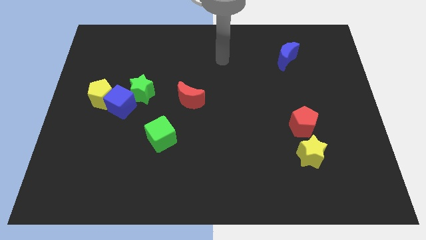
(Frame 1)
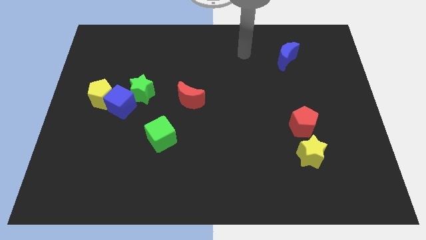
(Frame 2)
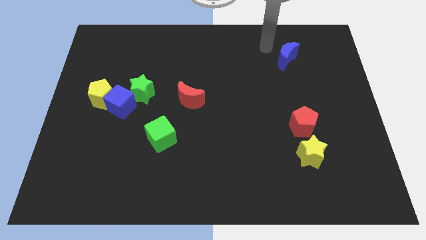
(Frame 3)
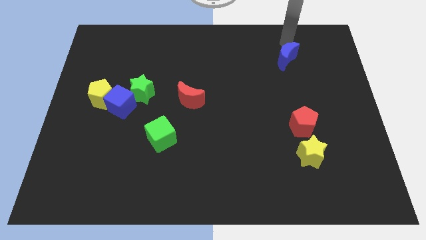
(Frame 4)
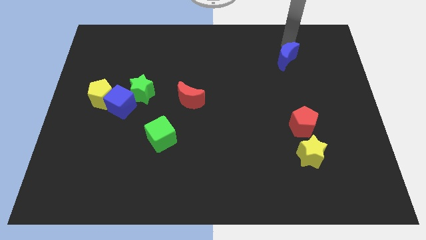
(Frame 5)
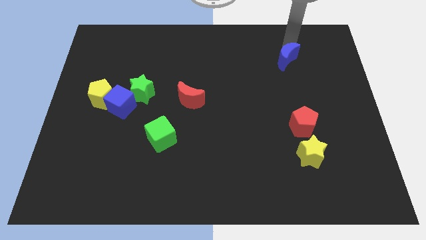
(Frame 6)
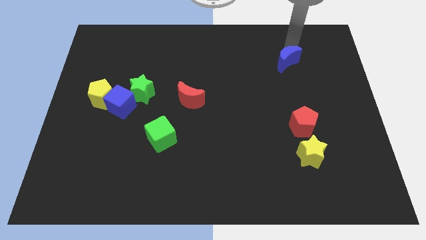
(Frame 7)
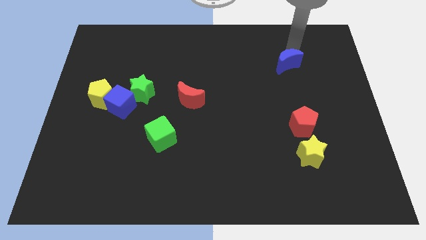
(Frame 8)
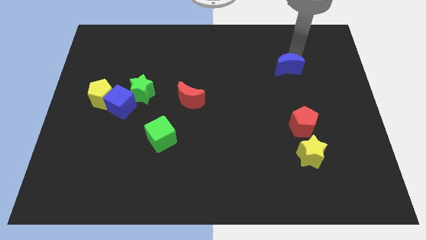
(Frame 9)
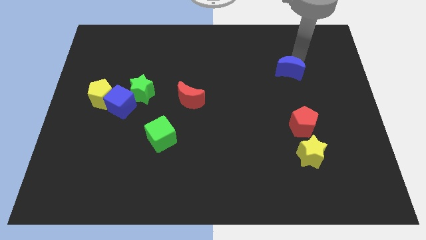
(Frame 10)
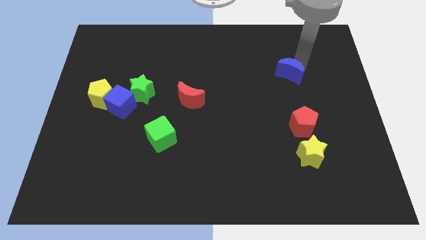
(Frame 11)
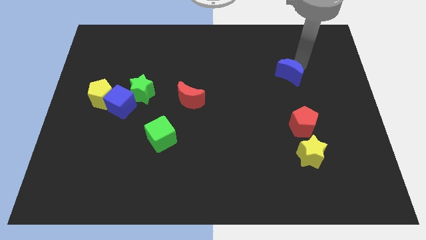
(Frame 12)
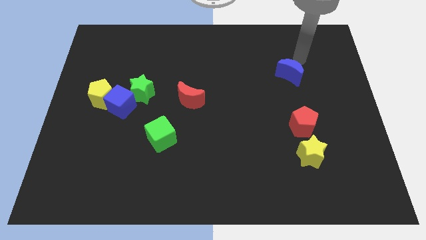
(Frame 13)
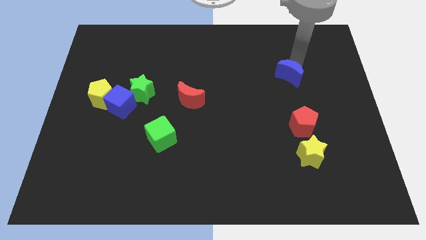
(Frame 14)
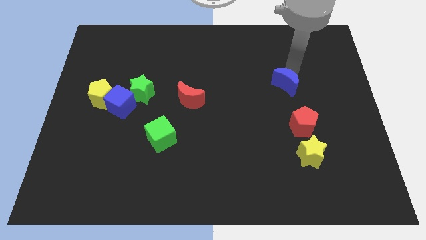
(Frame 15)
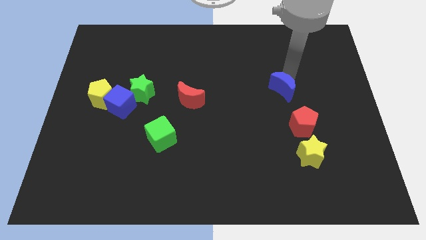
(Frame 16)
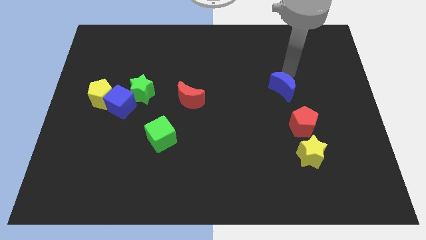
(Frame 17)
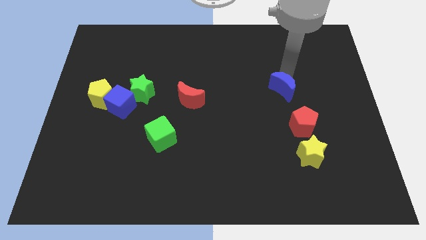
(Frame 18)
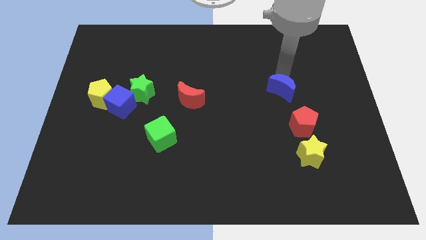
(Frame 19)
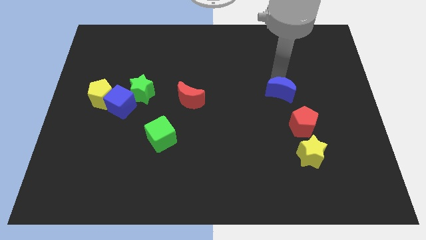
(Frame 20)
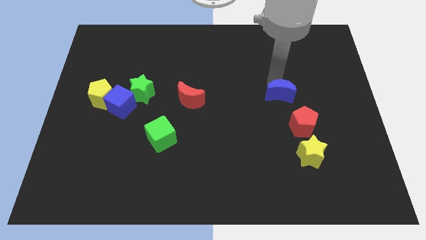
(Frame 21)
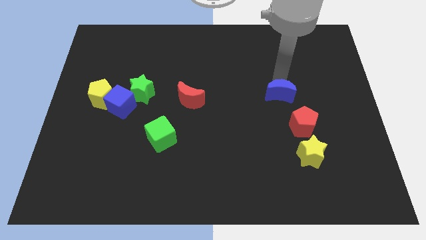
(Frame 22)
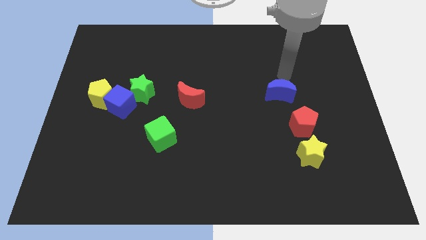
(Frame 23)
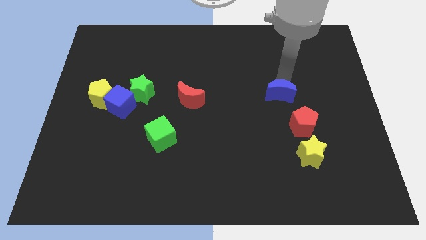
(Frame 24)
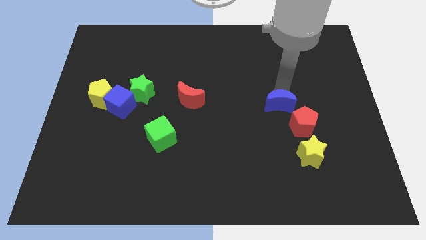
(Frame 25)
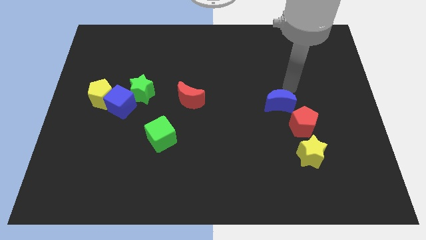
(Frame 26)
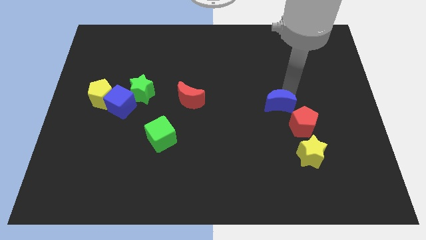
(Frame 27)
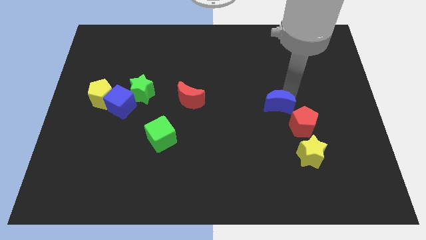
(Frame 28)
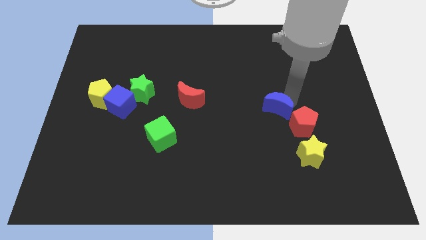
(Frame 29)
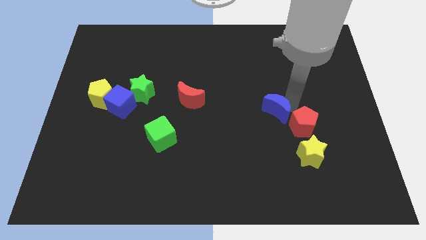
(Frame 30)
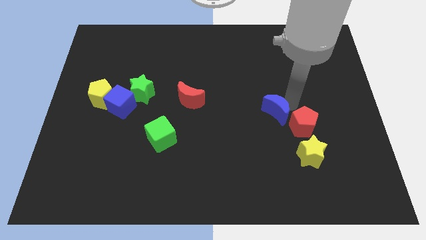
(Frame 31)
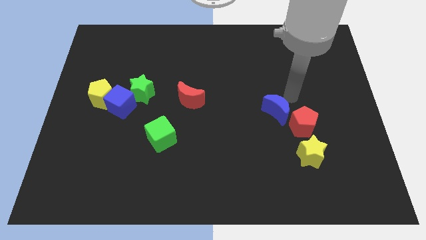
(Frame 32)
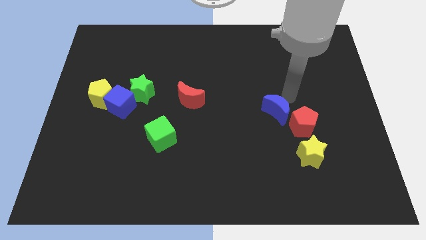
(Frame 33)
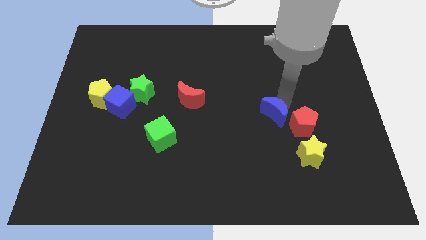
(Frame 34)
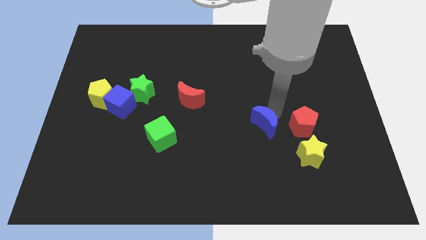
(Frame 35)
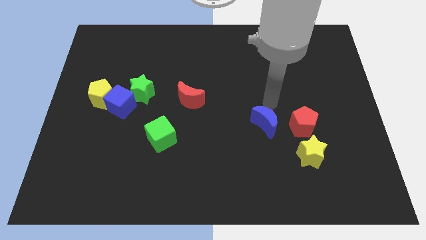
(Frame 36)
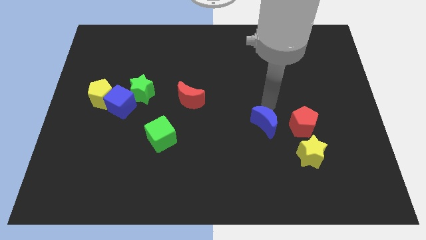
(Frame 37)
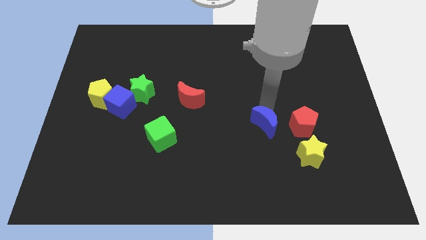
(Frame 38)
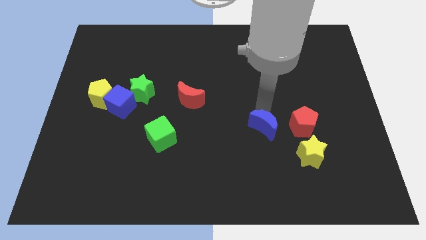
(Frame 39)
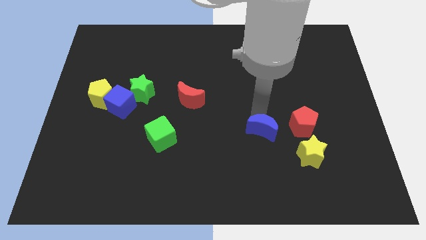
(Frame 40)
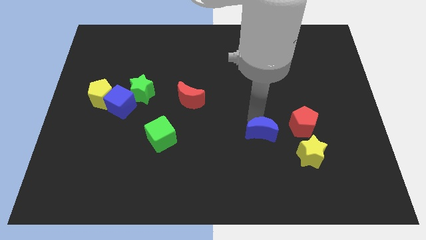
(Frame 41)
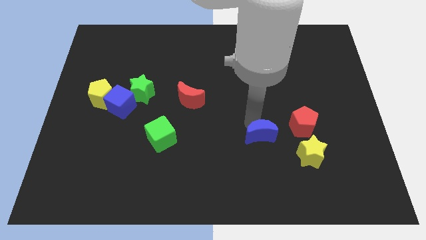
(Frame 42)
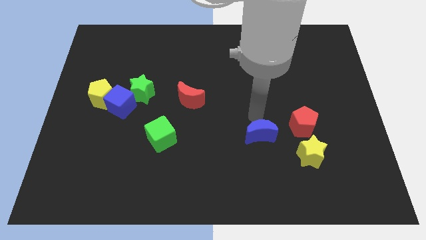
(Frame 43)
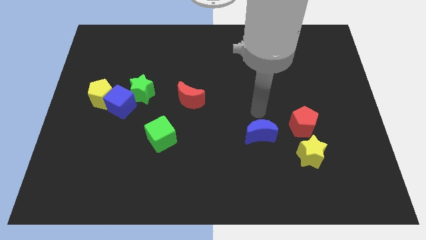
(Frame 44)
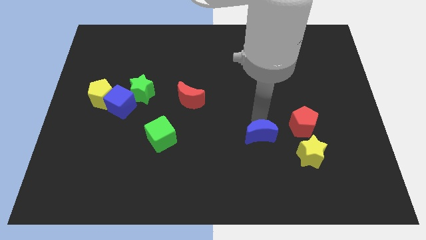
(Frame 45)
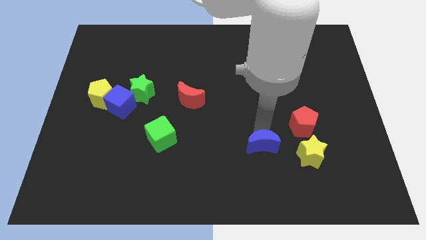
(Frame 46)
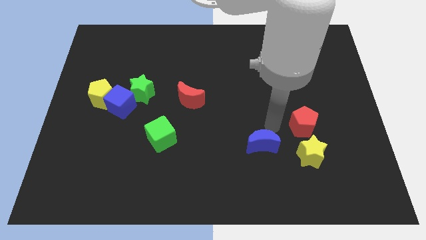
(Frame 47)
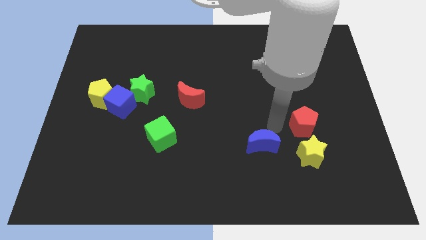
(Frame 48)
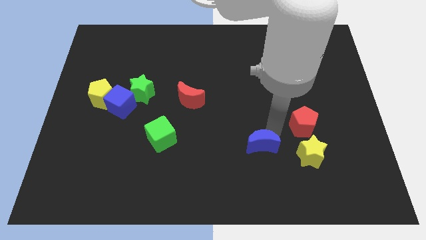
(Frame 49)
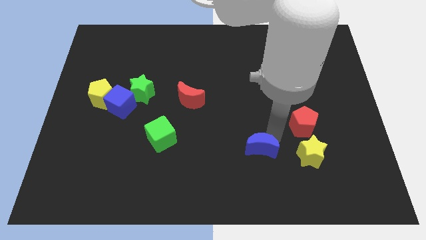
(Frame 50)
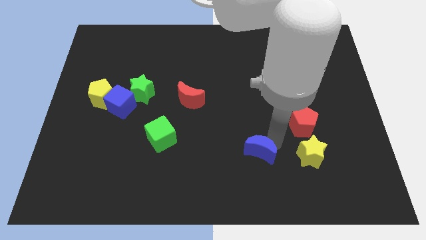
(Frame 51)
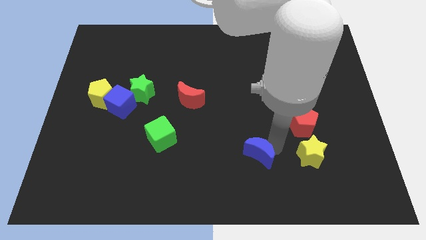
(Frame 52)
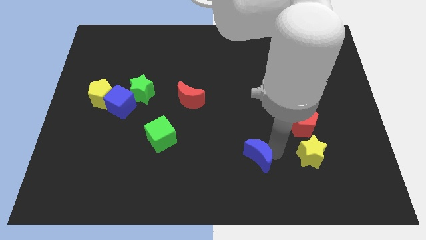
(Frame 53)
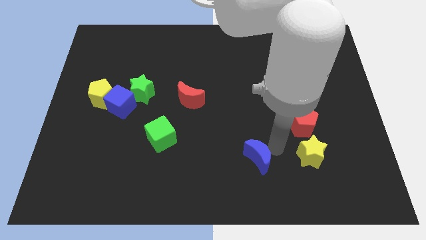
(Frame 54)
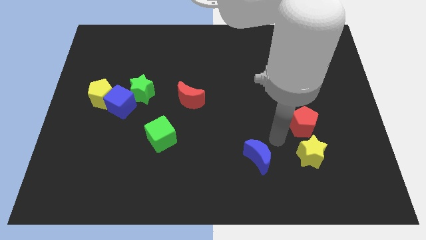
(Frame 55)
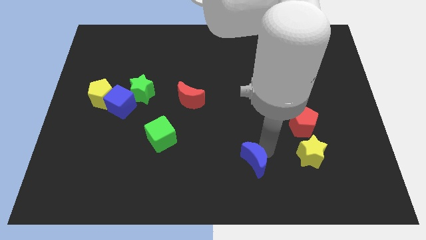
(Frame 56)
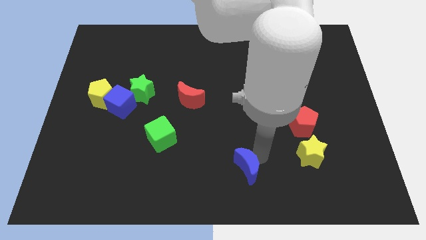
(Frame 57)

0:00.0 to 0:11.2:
slide the blue moon to the bottom side

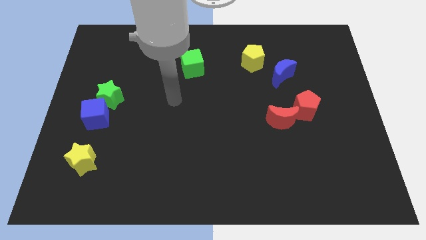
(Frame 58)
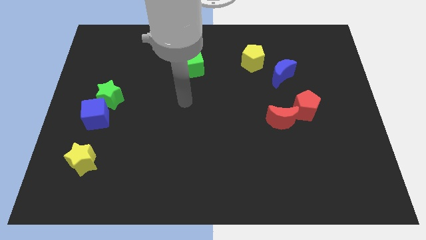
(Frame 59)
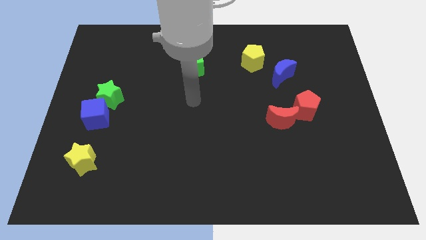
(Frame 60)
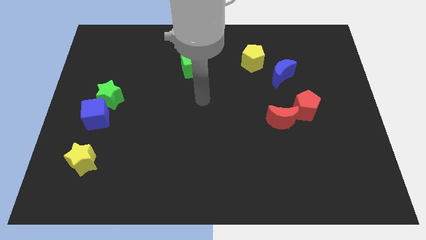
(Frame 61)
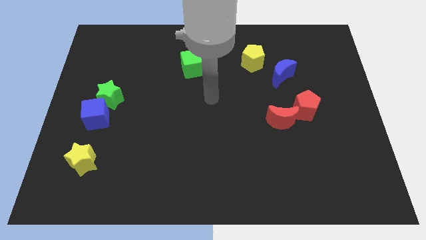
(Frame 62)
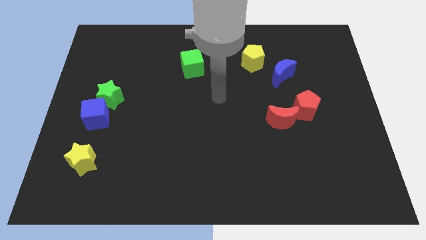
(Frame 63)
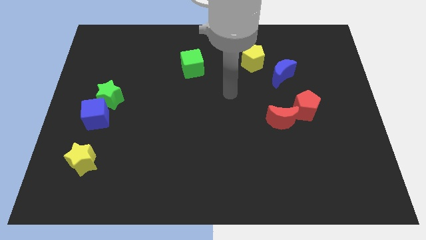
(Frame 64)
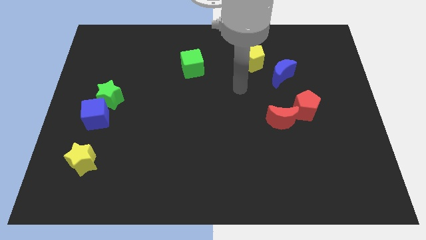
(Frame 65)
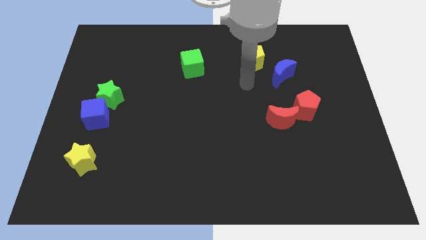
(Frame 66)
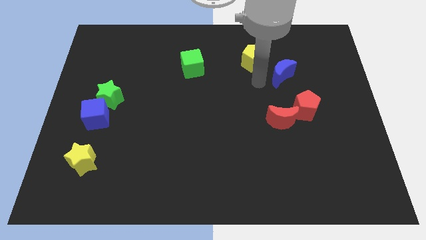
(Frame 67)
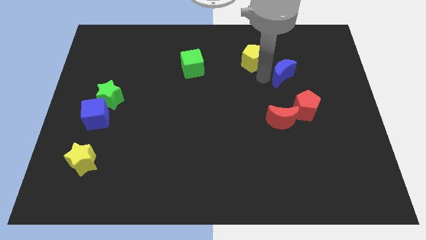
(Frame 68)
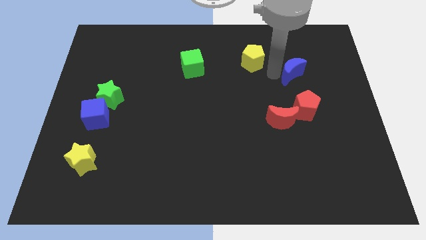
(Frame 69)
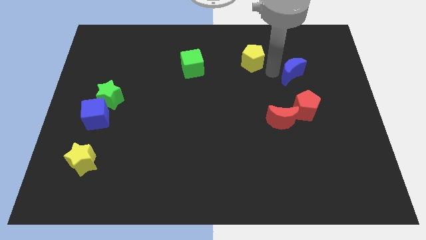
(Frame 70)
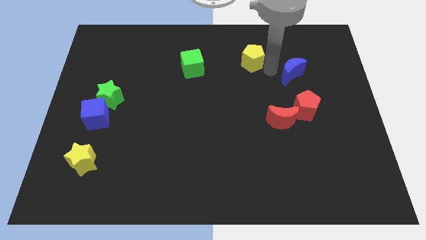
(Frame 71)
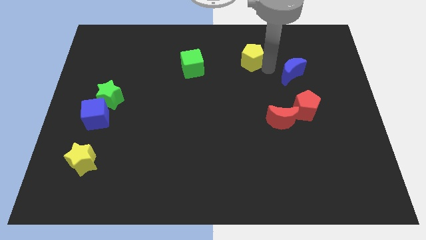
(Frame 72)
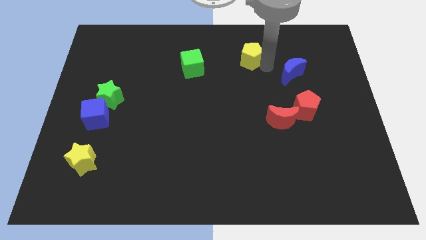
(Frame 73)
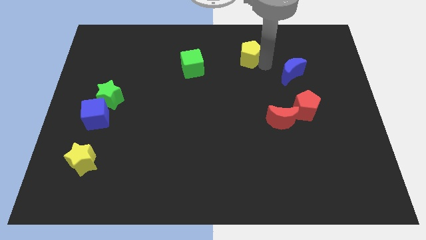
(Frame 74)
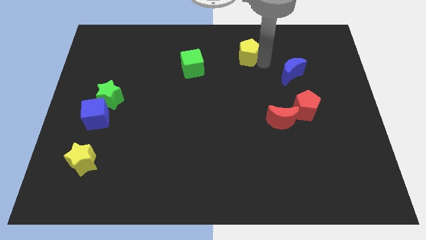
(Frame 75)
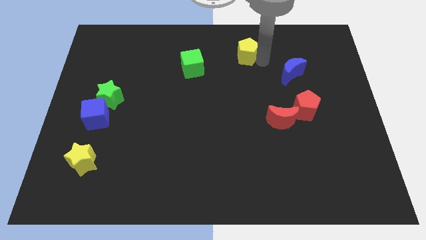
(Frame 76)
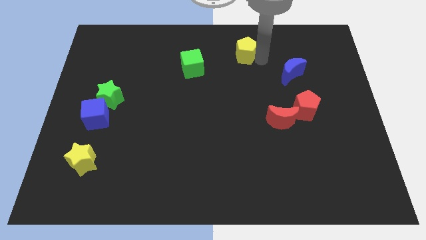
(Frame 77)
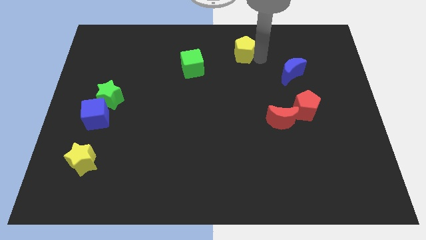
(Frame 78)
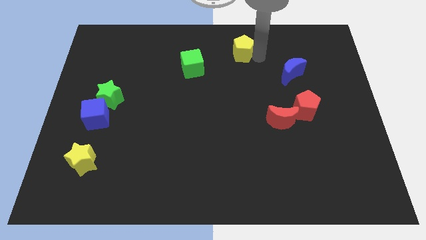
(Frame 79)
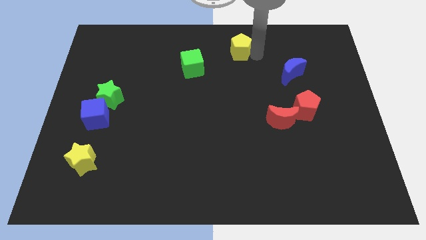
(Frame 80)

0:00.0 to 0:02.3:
slide the yellow pentagon to the top
